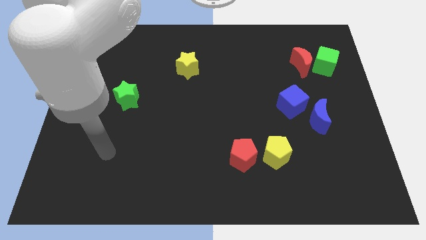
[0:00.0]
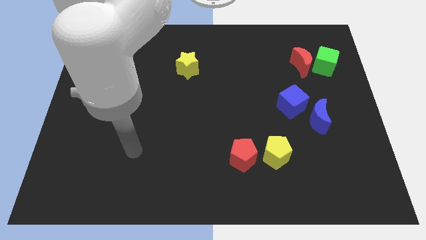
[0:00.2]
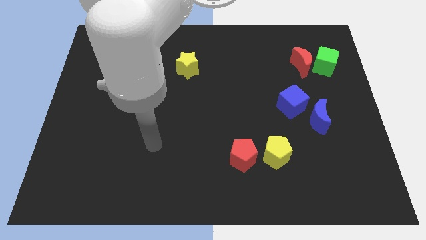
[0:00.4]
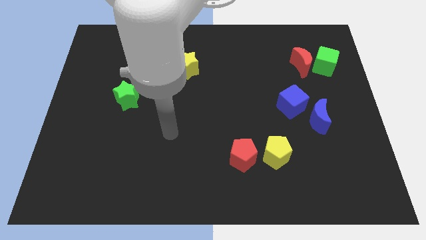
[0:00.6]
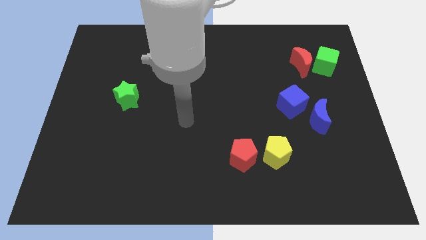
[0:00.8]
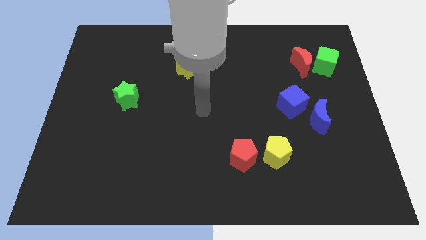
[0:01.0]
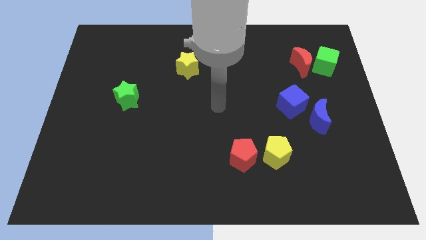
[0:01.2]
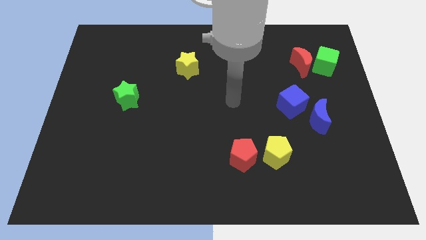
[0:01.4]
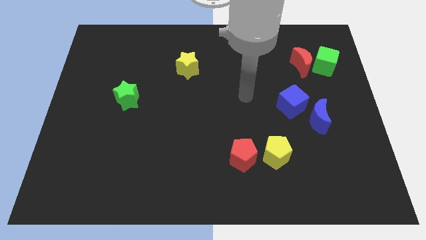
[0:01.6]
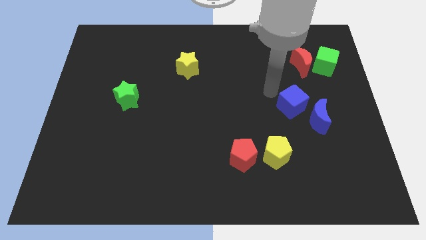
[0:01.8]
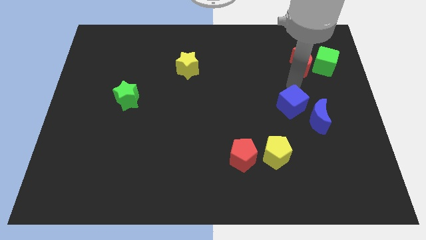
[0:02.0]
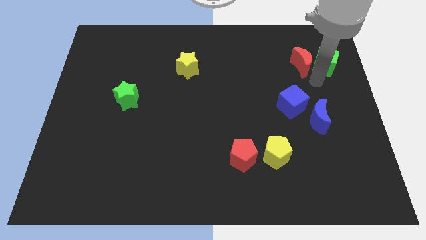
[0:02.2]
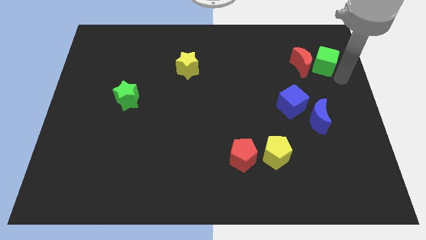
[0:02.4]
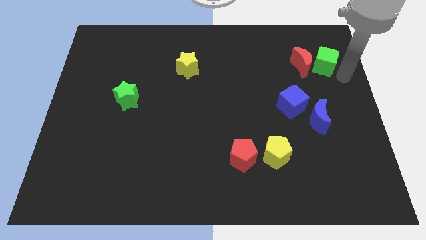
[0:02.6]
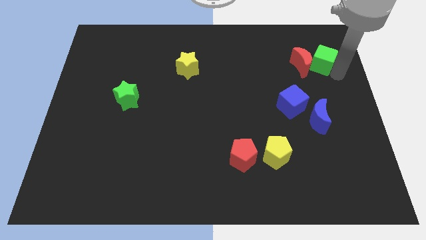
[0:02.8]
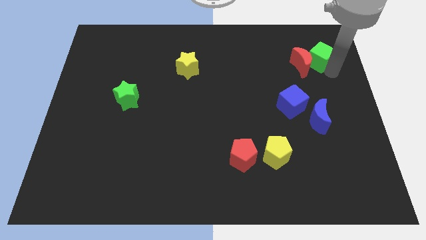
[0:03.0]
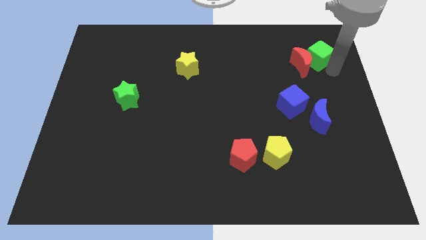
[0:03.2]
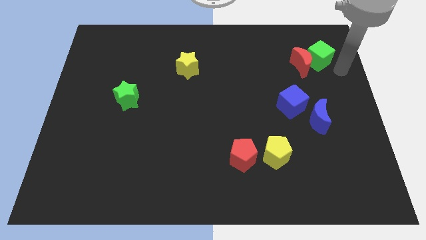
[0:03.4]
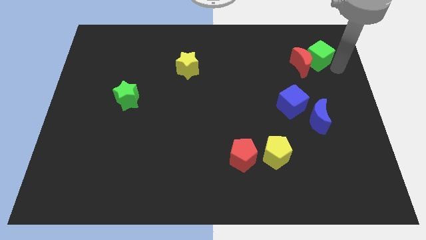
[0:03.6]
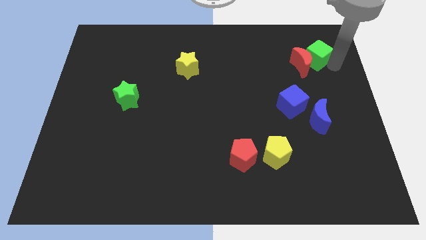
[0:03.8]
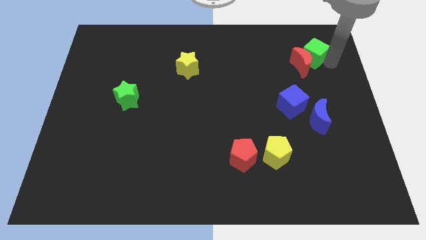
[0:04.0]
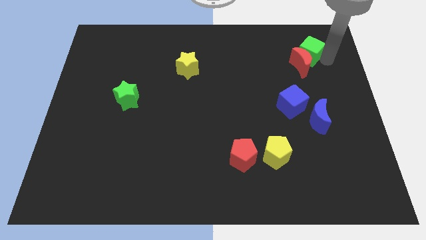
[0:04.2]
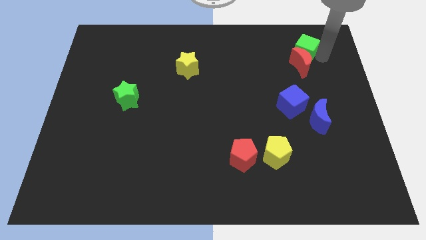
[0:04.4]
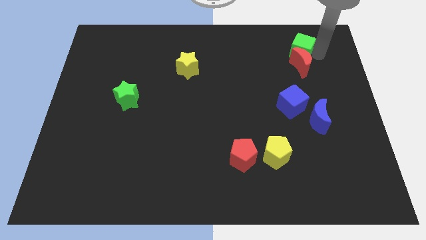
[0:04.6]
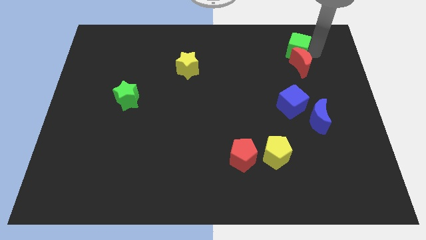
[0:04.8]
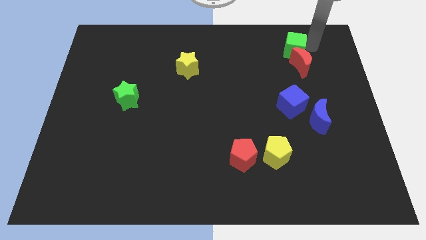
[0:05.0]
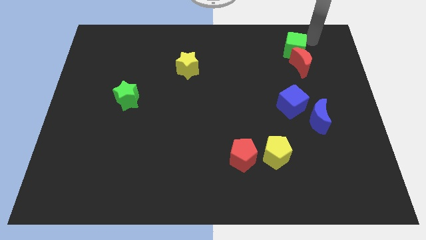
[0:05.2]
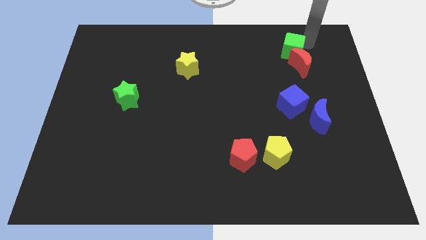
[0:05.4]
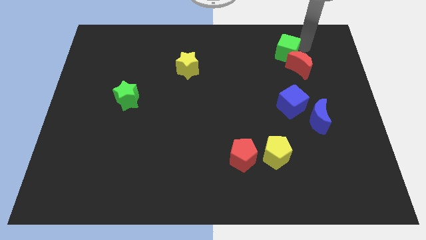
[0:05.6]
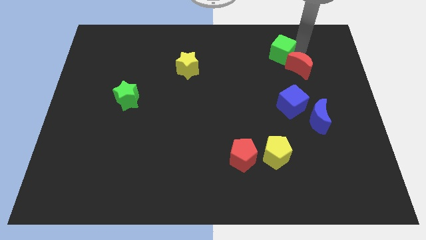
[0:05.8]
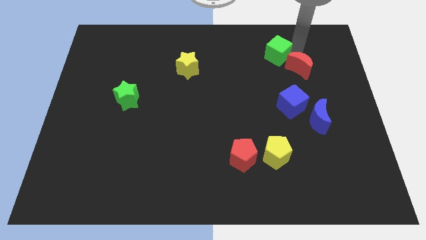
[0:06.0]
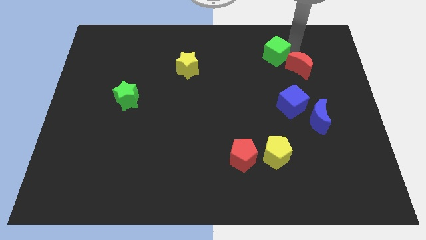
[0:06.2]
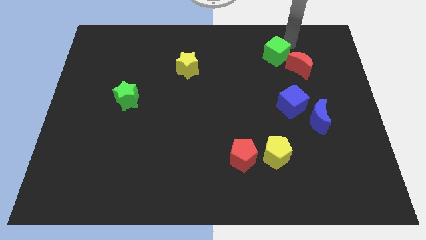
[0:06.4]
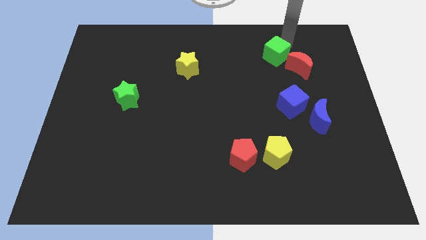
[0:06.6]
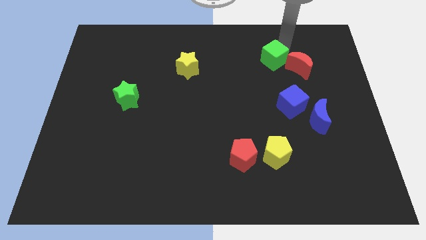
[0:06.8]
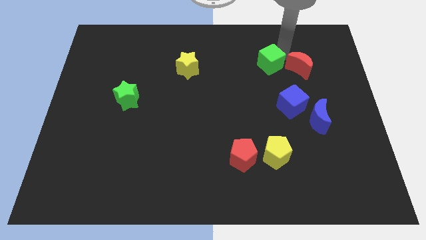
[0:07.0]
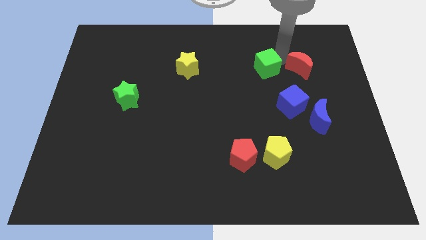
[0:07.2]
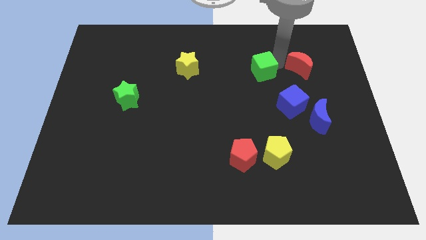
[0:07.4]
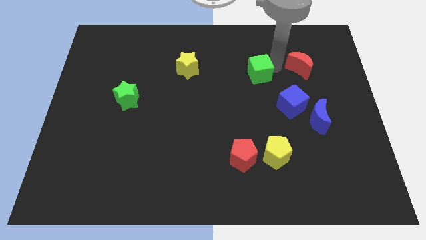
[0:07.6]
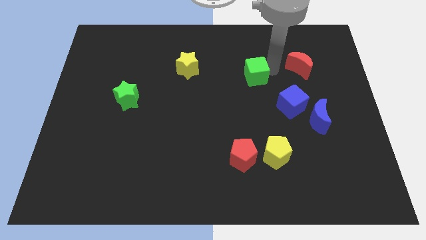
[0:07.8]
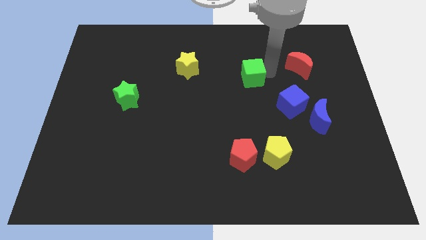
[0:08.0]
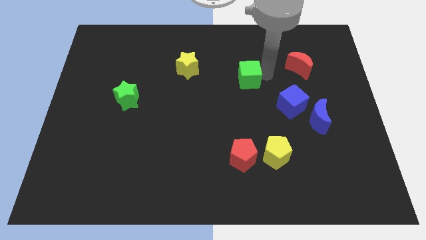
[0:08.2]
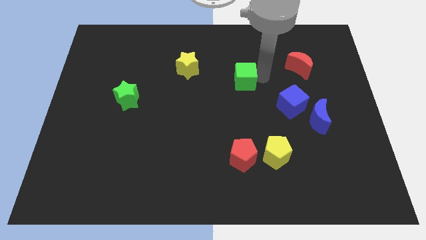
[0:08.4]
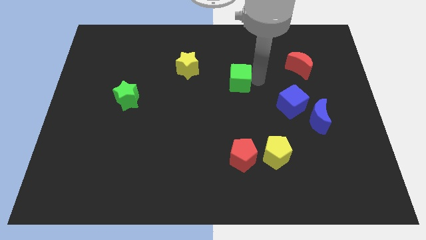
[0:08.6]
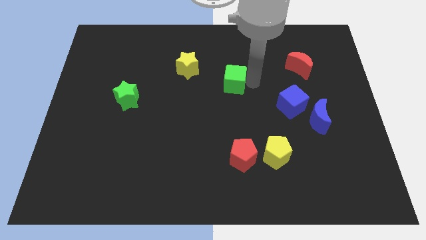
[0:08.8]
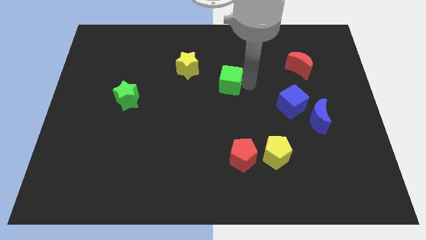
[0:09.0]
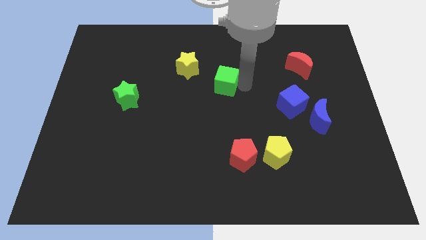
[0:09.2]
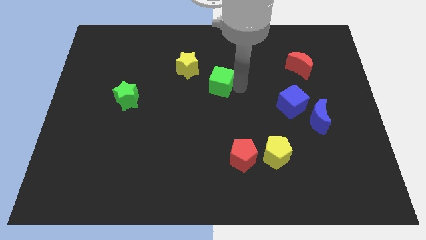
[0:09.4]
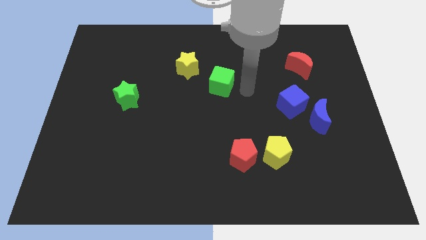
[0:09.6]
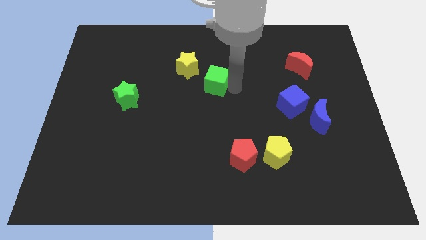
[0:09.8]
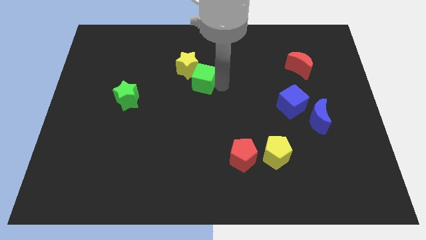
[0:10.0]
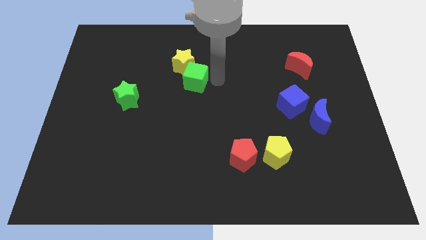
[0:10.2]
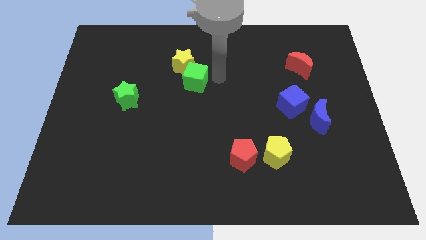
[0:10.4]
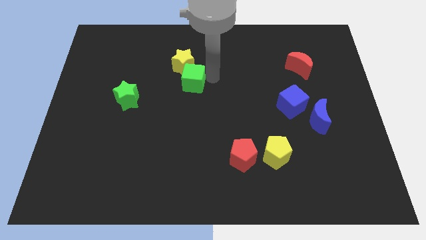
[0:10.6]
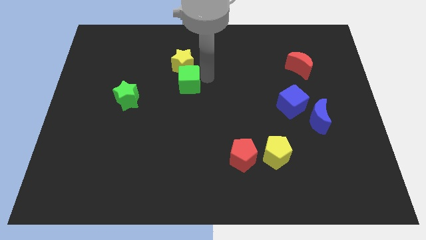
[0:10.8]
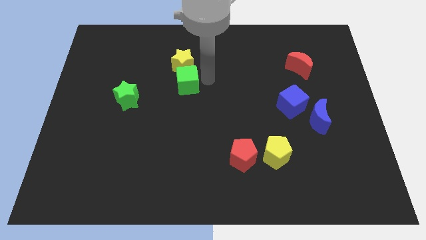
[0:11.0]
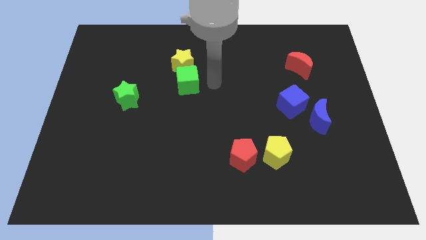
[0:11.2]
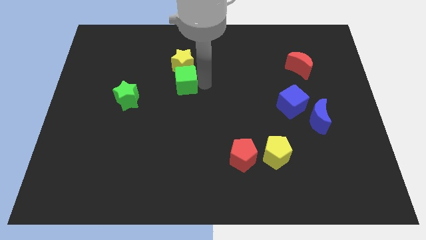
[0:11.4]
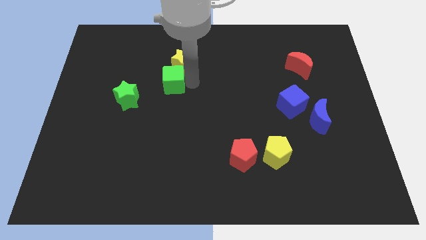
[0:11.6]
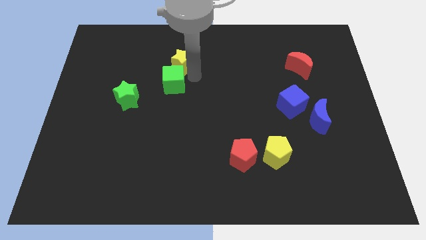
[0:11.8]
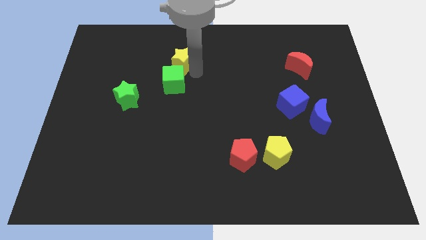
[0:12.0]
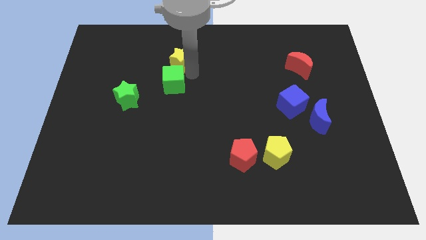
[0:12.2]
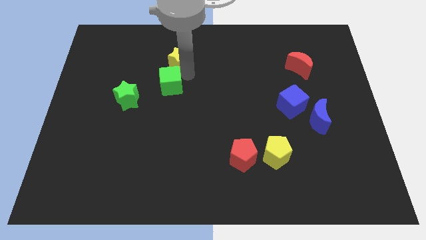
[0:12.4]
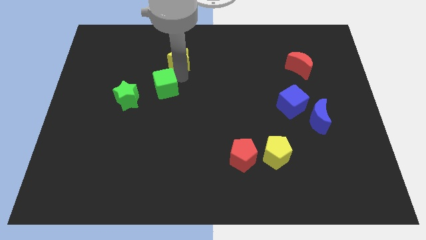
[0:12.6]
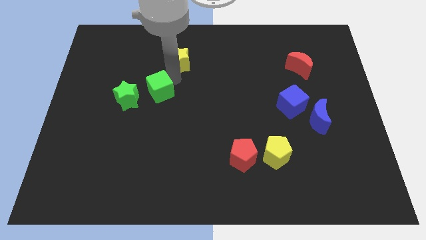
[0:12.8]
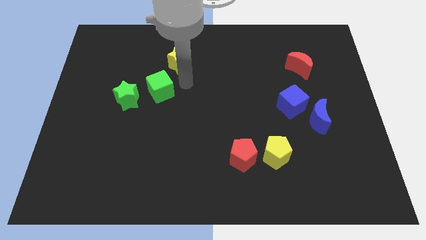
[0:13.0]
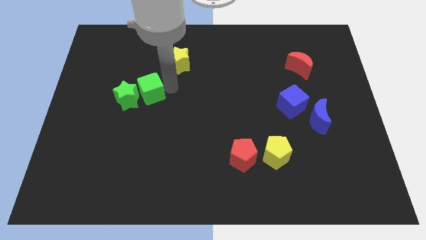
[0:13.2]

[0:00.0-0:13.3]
put the green cube next to the green star

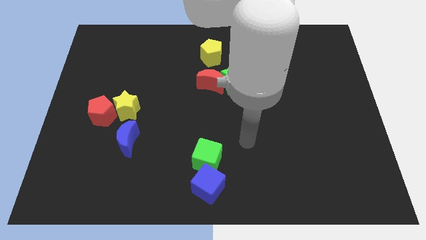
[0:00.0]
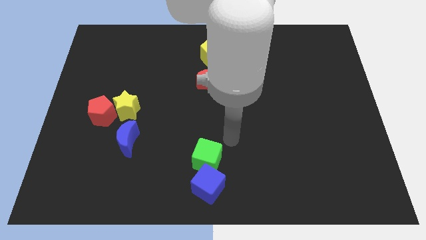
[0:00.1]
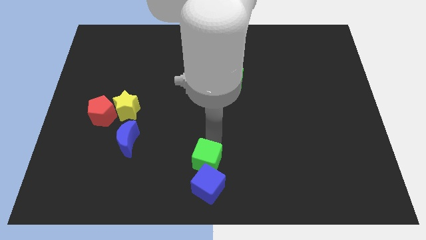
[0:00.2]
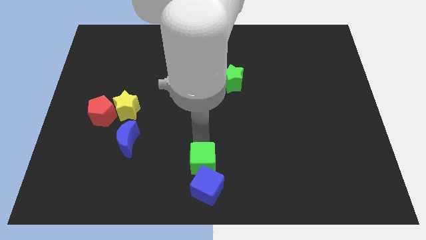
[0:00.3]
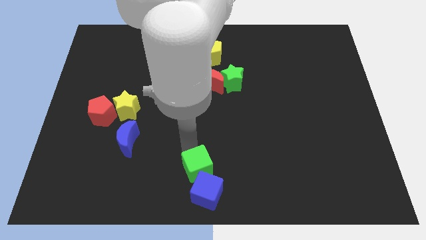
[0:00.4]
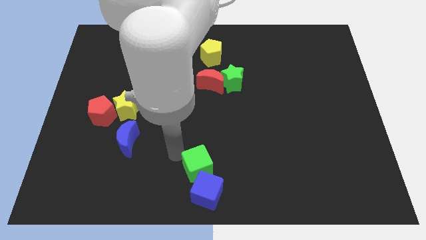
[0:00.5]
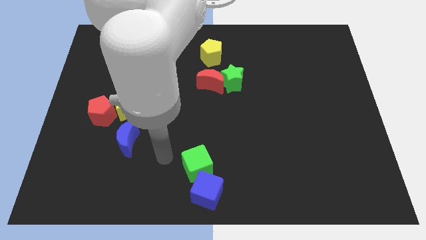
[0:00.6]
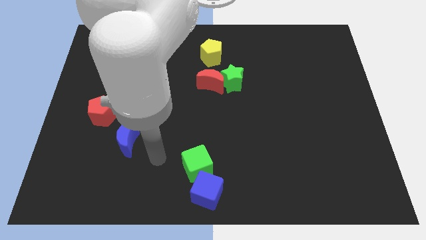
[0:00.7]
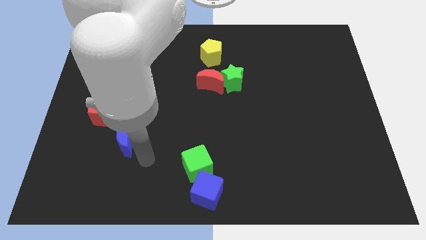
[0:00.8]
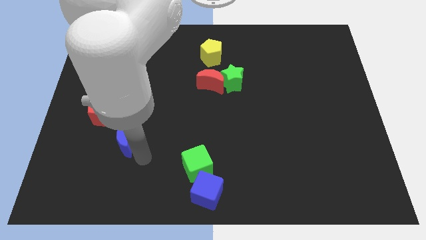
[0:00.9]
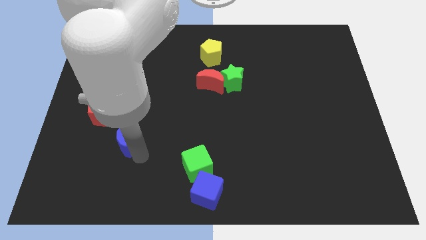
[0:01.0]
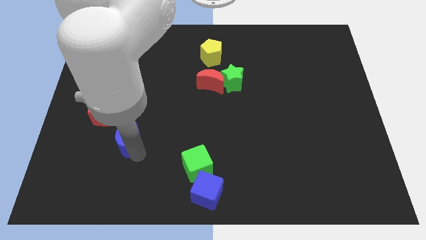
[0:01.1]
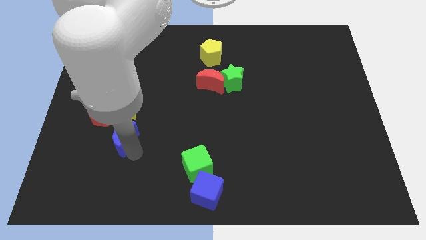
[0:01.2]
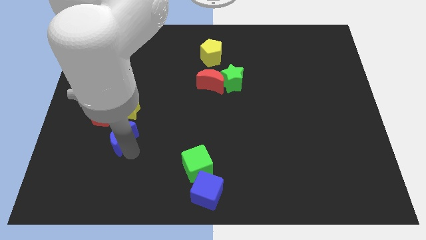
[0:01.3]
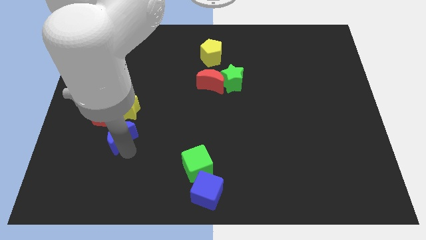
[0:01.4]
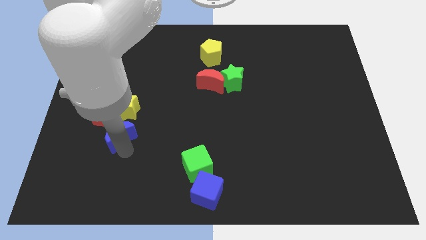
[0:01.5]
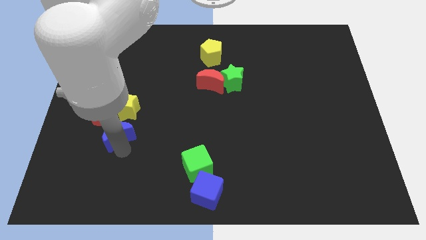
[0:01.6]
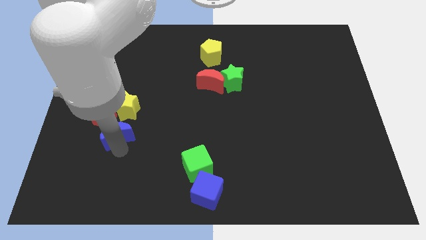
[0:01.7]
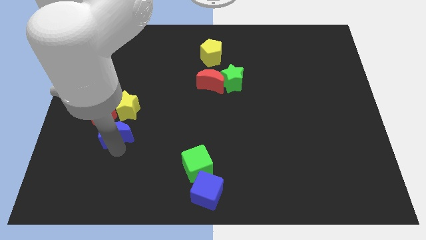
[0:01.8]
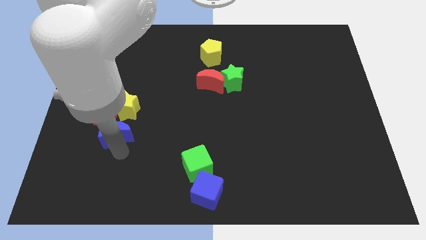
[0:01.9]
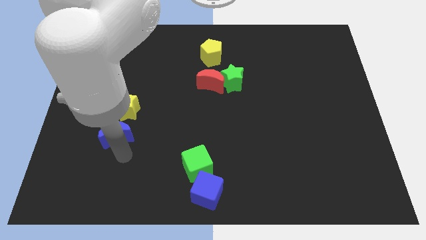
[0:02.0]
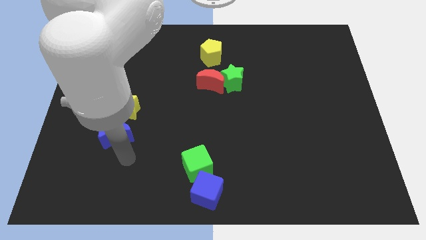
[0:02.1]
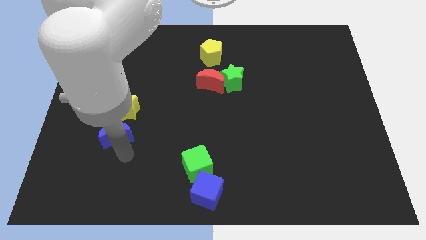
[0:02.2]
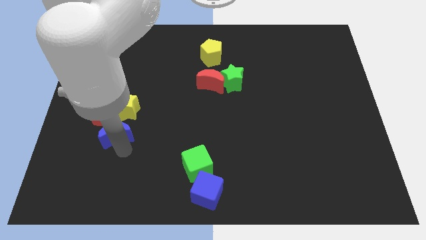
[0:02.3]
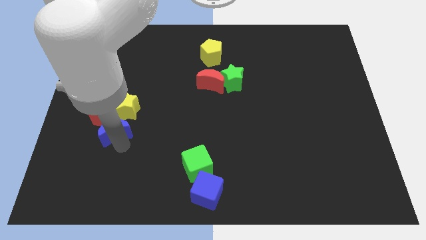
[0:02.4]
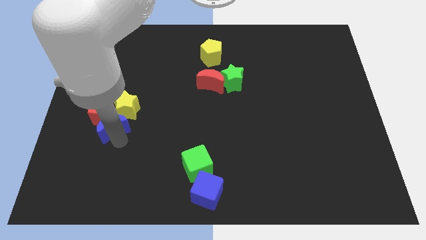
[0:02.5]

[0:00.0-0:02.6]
move the blue moon towards the red pentagon
